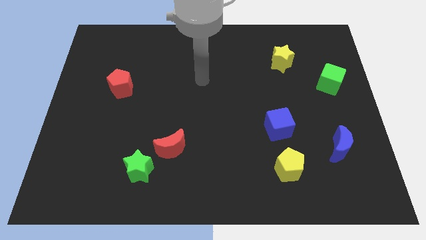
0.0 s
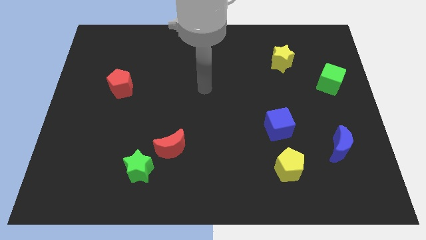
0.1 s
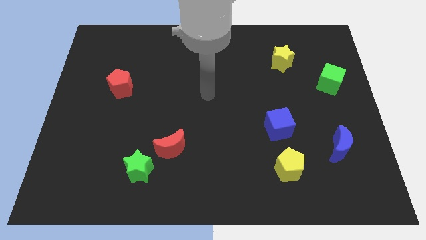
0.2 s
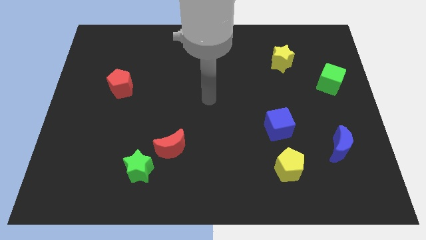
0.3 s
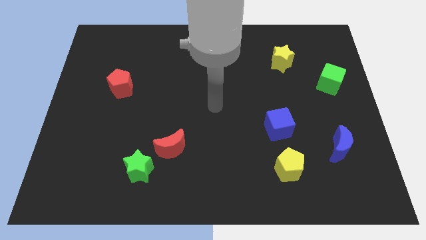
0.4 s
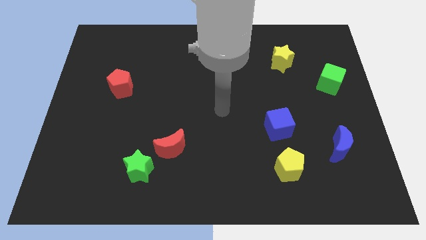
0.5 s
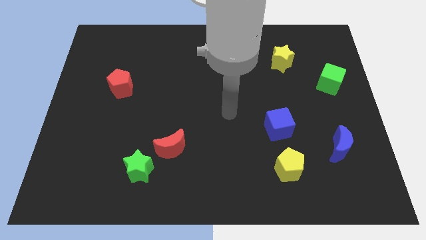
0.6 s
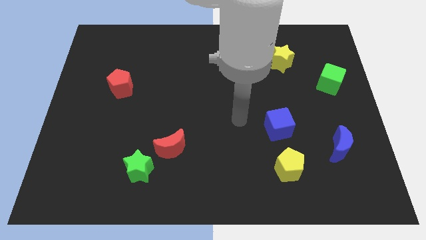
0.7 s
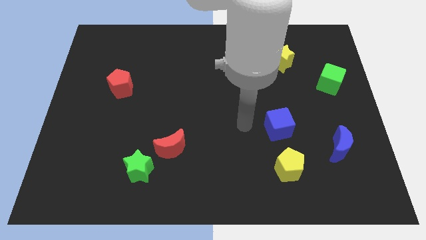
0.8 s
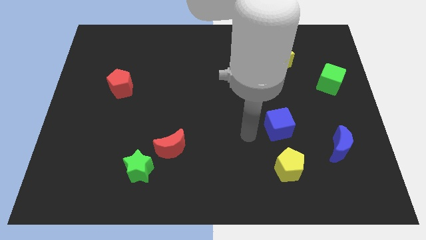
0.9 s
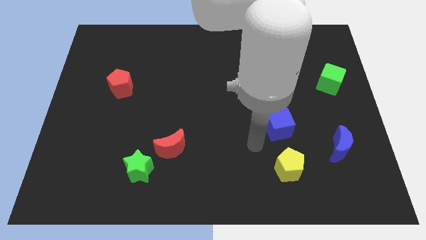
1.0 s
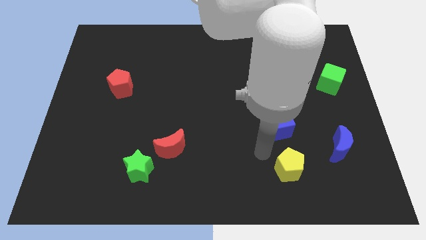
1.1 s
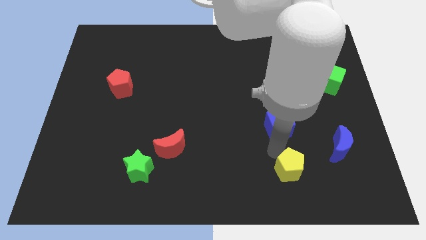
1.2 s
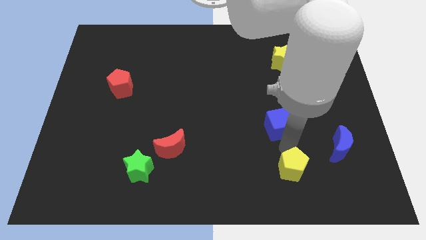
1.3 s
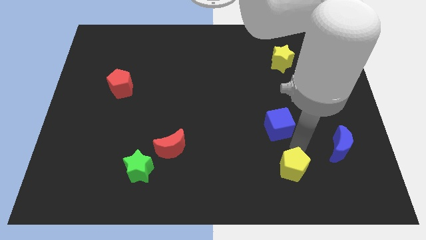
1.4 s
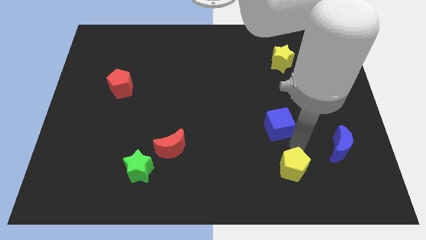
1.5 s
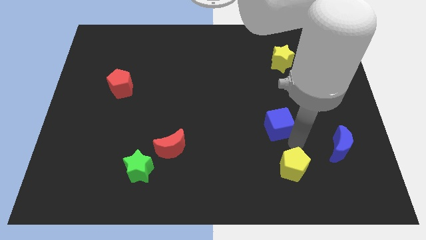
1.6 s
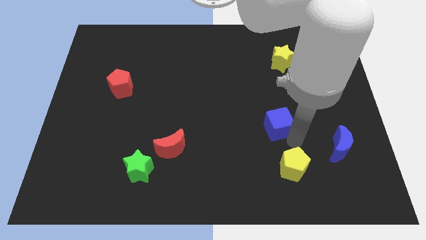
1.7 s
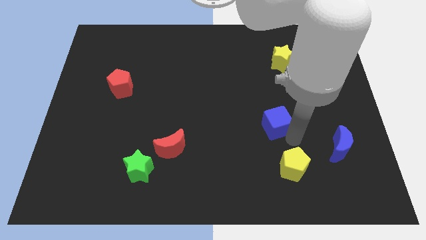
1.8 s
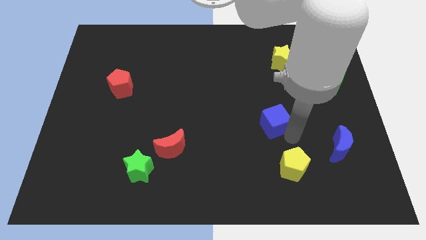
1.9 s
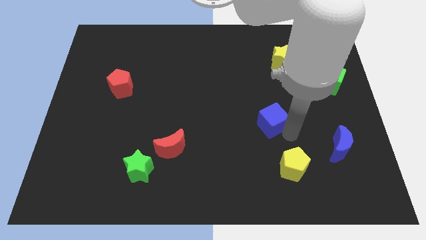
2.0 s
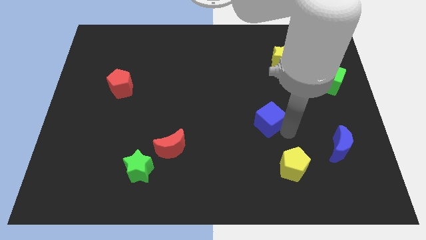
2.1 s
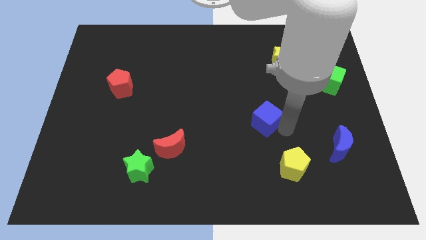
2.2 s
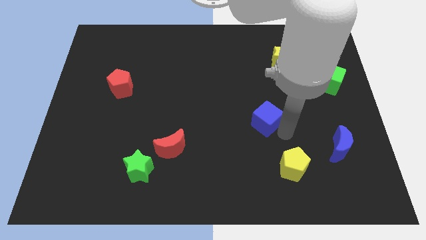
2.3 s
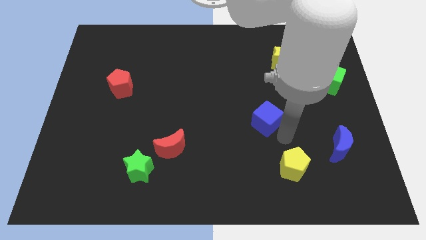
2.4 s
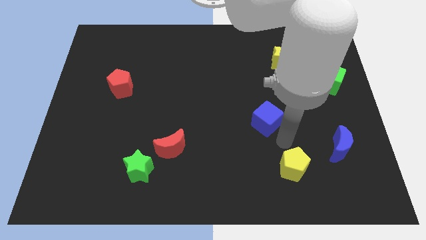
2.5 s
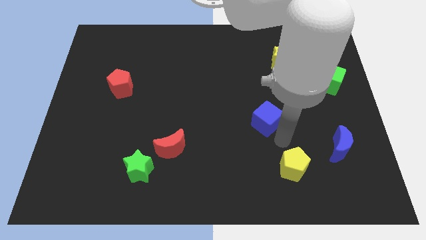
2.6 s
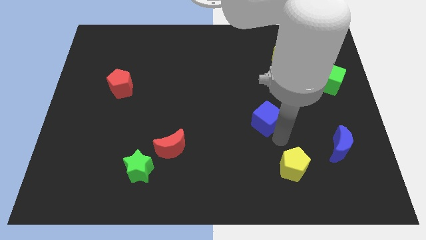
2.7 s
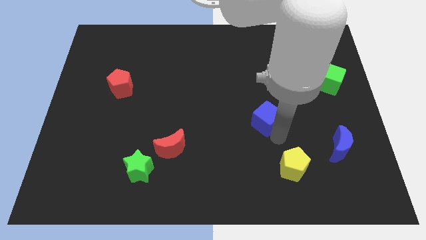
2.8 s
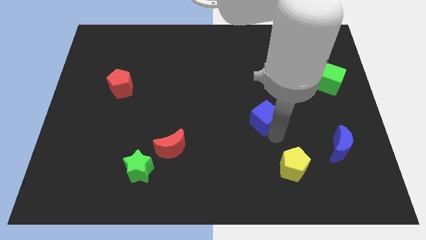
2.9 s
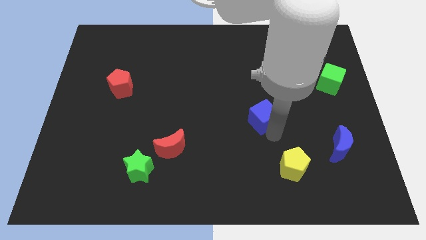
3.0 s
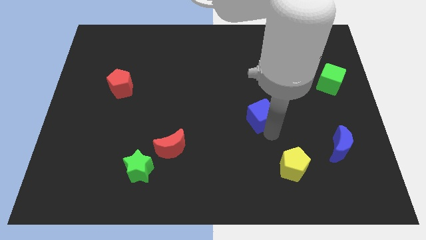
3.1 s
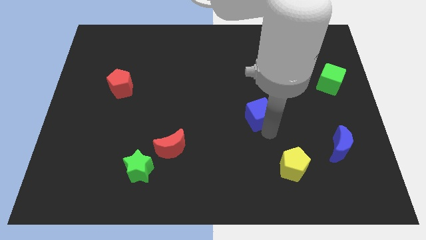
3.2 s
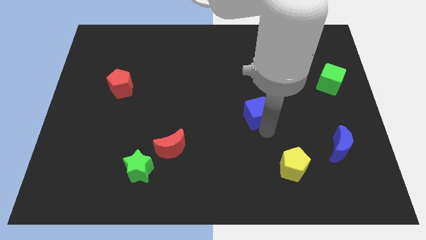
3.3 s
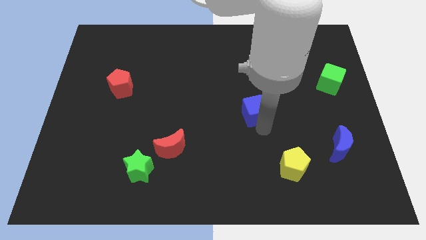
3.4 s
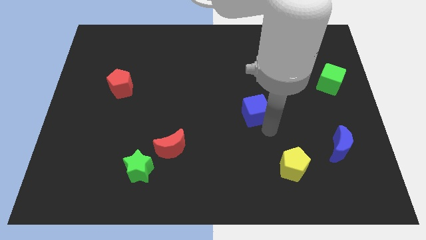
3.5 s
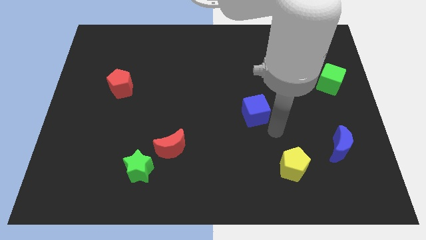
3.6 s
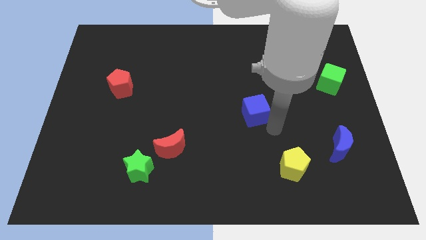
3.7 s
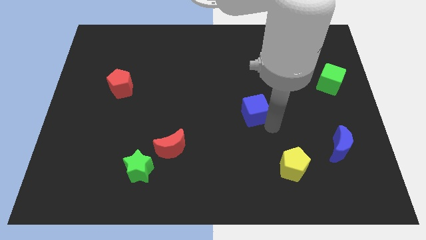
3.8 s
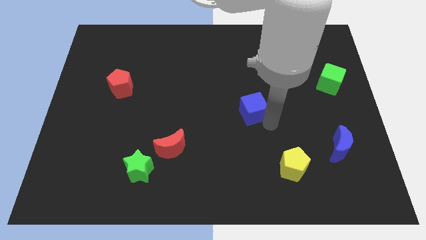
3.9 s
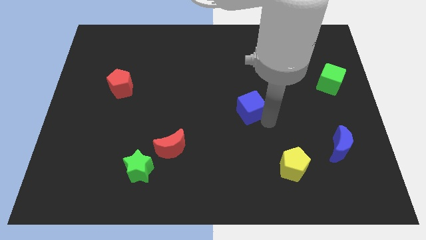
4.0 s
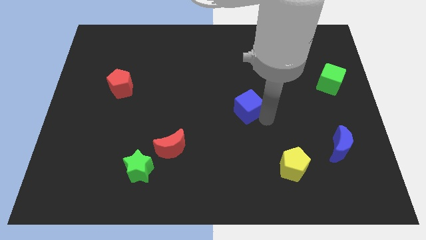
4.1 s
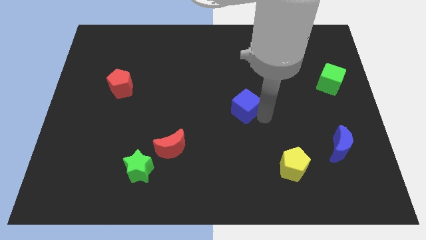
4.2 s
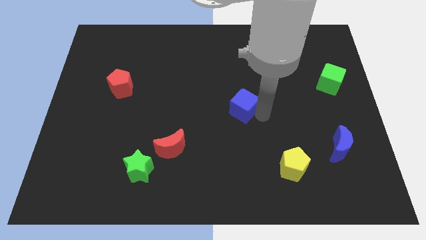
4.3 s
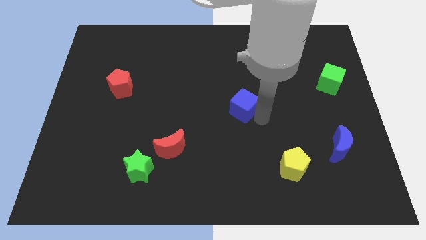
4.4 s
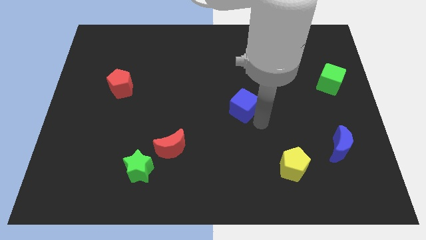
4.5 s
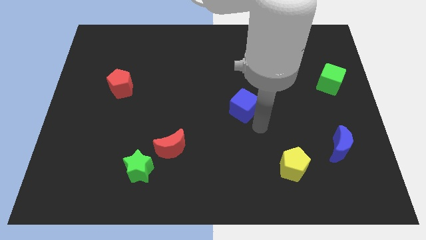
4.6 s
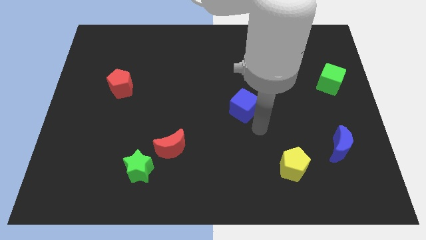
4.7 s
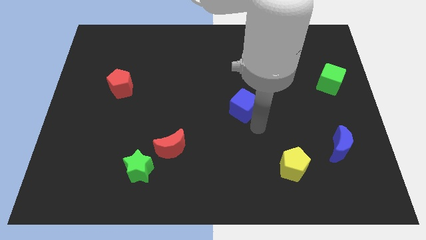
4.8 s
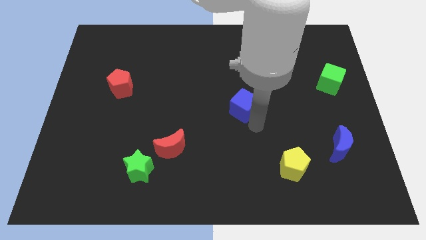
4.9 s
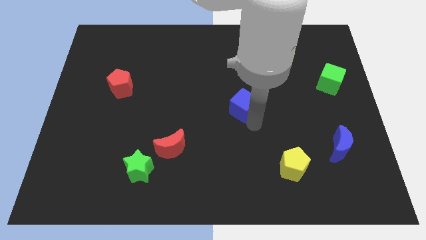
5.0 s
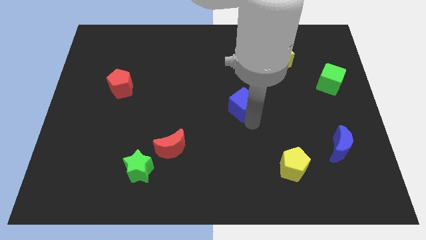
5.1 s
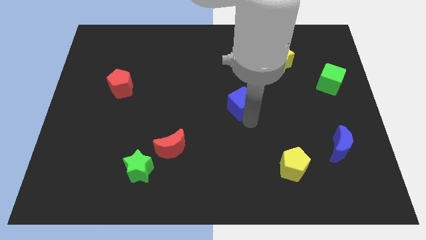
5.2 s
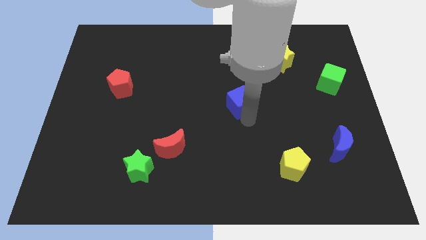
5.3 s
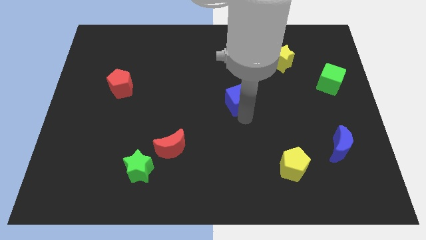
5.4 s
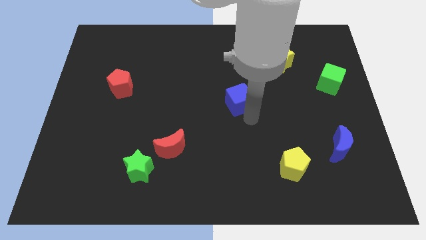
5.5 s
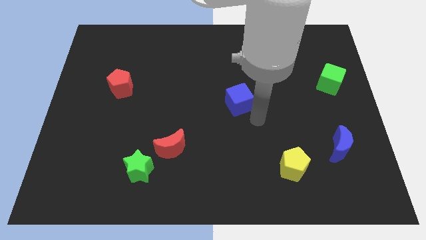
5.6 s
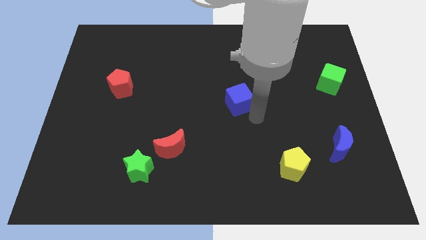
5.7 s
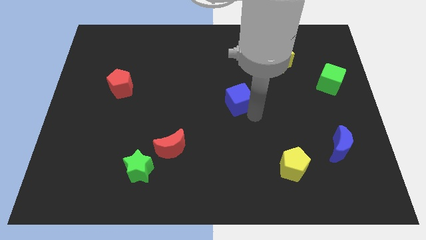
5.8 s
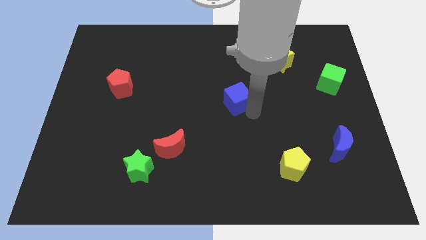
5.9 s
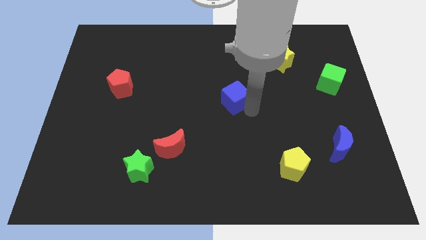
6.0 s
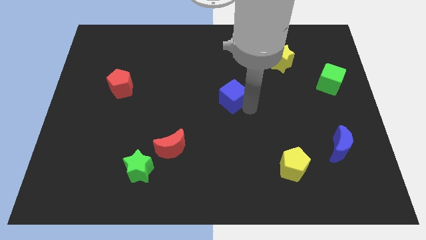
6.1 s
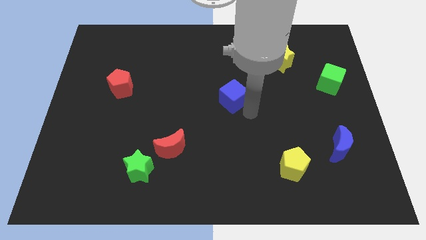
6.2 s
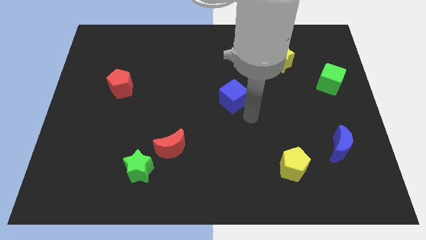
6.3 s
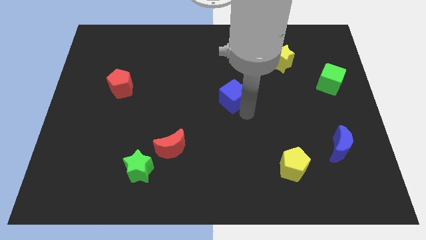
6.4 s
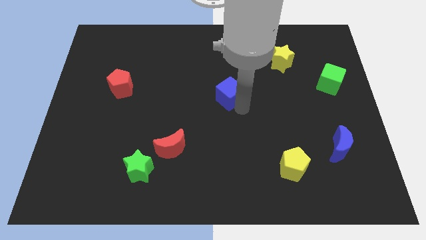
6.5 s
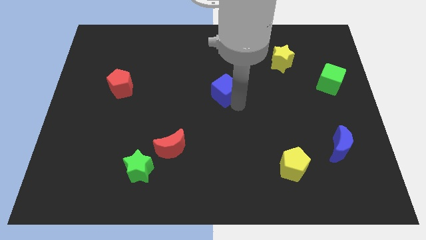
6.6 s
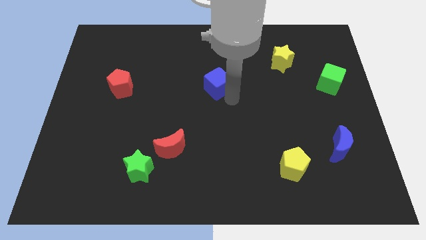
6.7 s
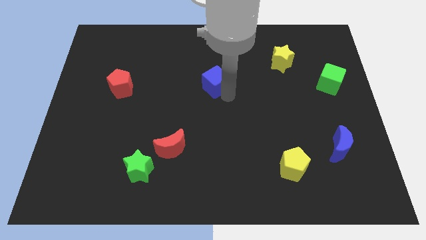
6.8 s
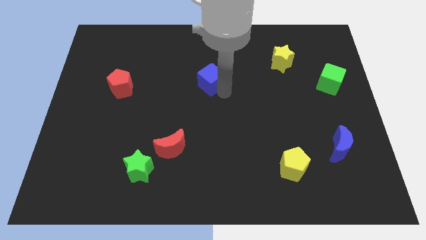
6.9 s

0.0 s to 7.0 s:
slide the blue cube up and to the left

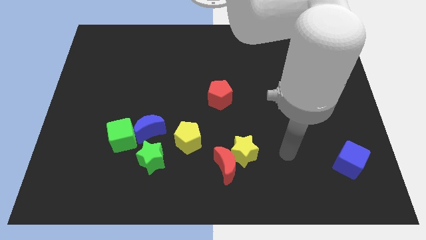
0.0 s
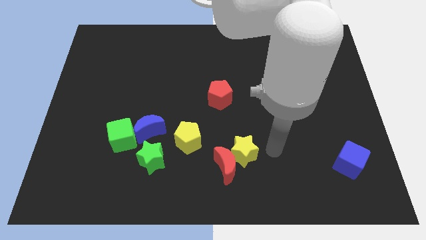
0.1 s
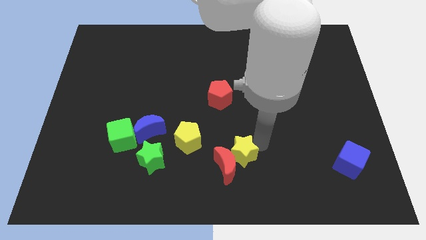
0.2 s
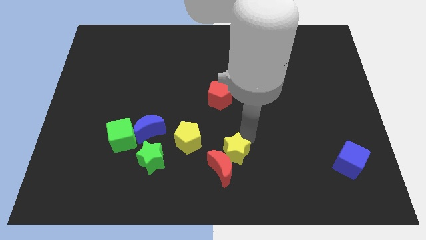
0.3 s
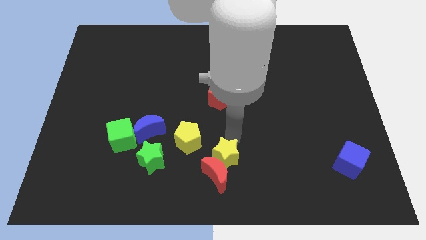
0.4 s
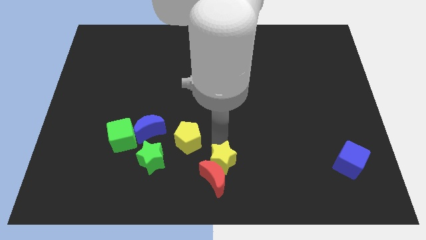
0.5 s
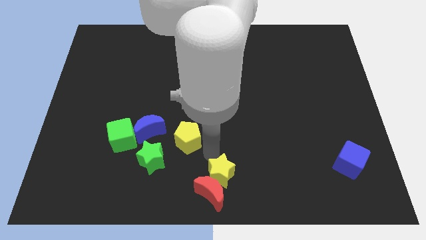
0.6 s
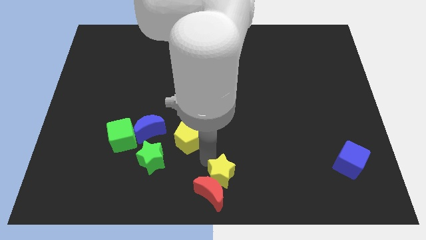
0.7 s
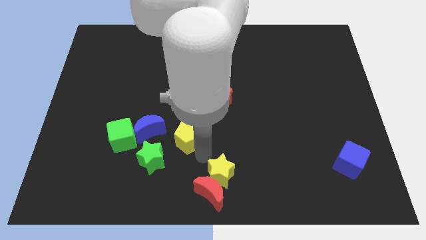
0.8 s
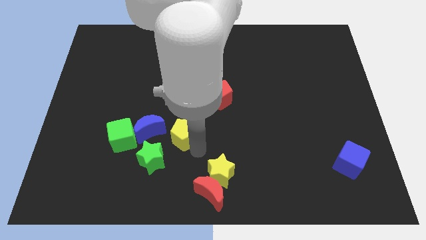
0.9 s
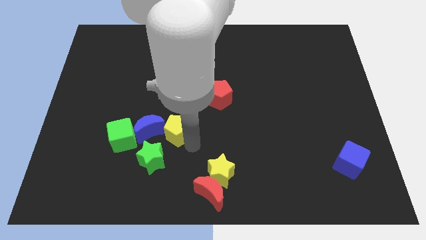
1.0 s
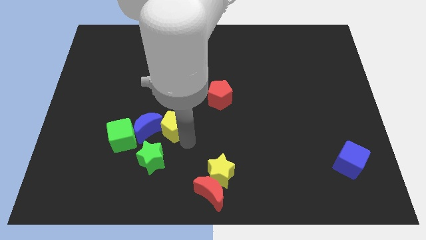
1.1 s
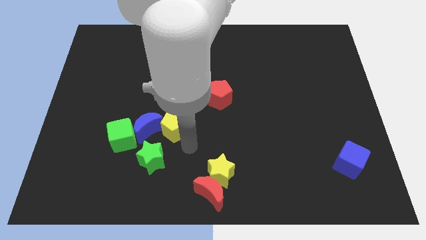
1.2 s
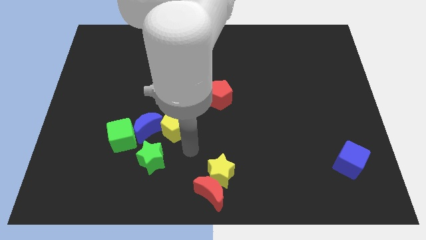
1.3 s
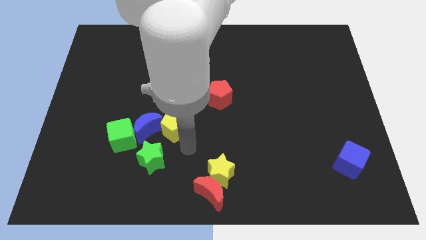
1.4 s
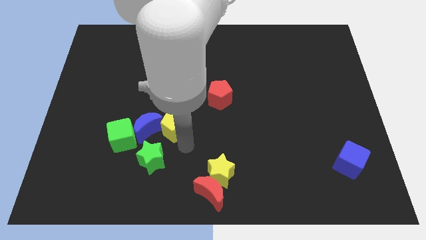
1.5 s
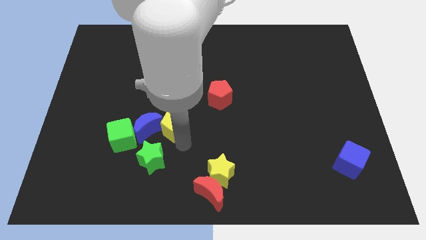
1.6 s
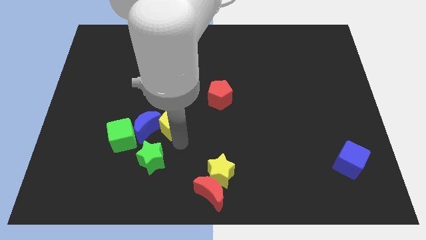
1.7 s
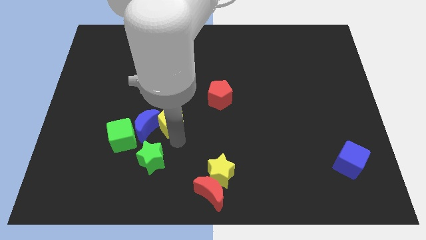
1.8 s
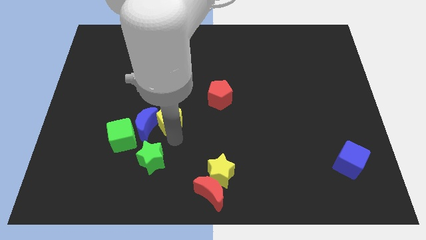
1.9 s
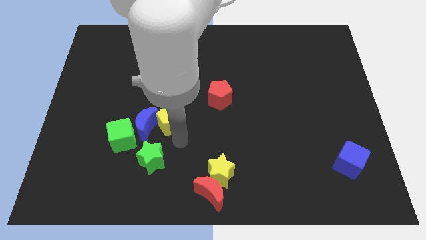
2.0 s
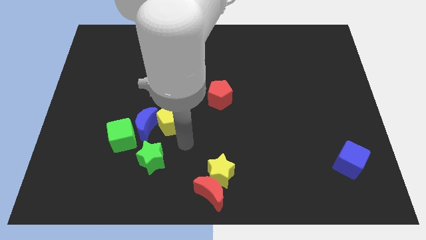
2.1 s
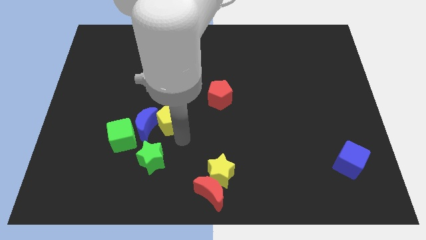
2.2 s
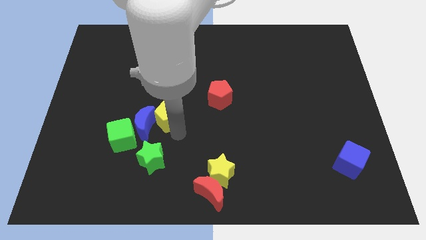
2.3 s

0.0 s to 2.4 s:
slightly move the yellow pentagon upwards and left
